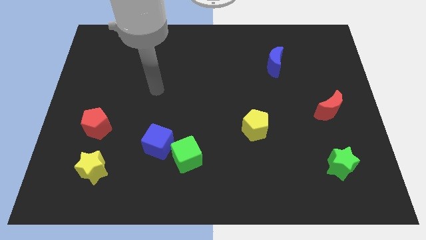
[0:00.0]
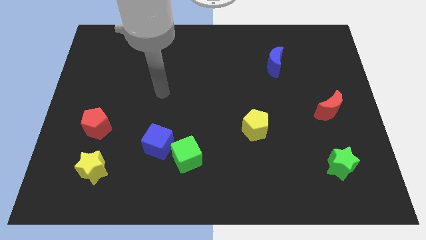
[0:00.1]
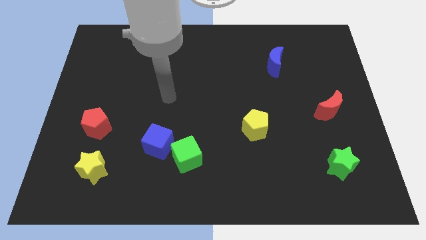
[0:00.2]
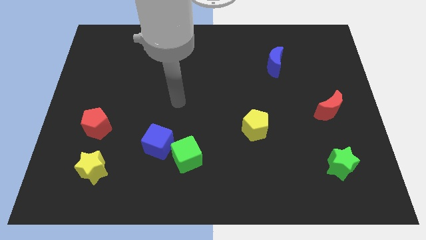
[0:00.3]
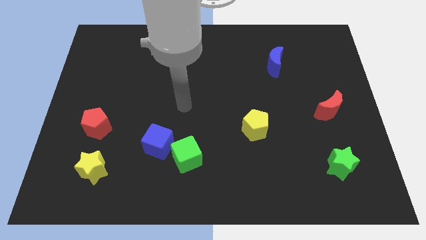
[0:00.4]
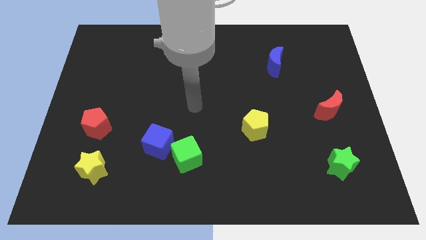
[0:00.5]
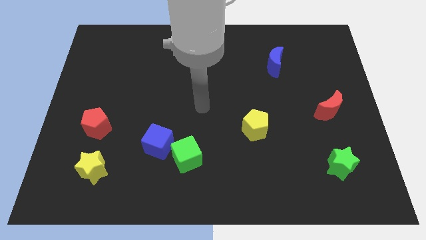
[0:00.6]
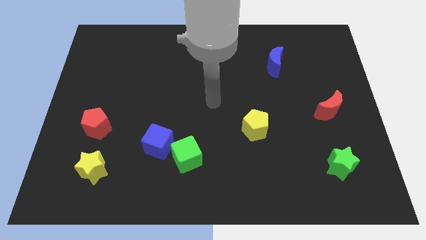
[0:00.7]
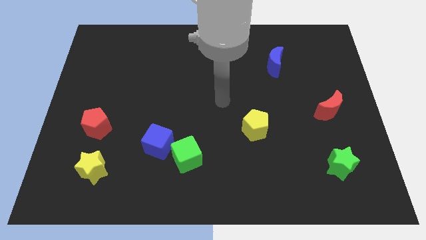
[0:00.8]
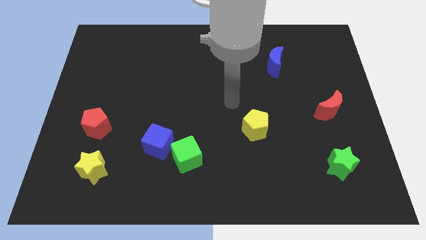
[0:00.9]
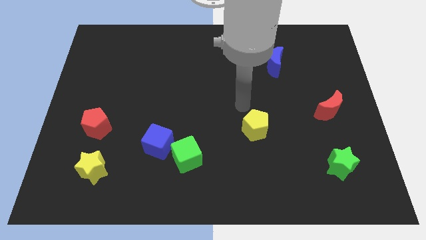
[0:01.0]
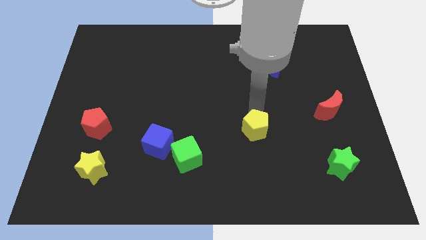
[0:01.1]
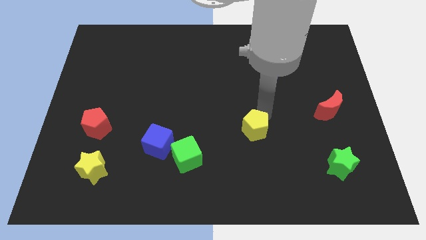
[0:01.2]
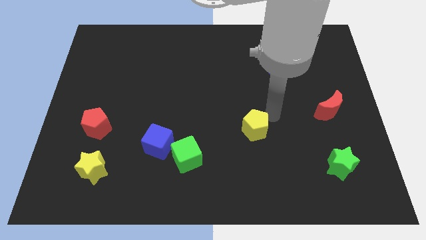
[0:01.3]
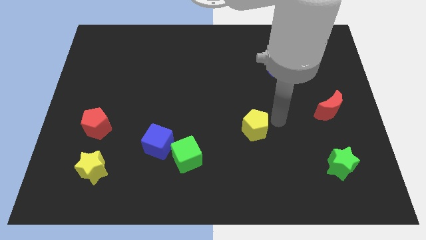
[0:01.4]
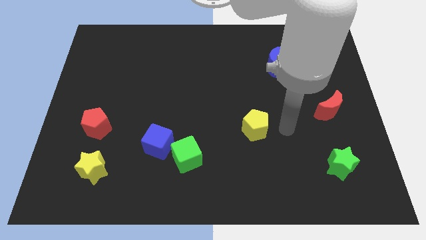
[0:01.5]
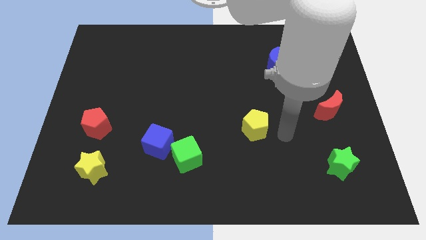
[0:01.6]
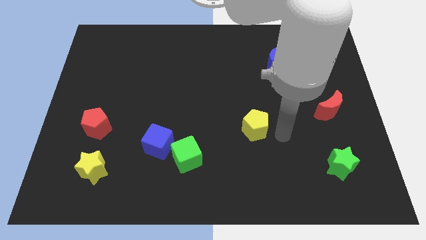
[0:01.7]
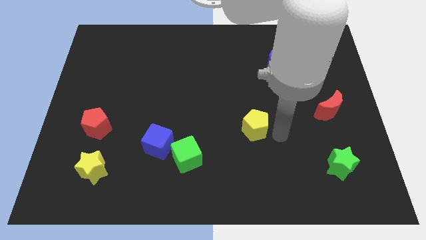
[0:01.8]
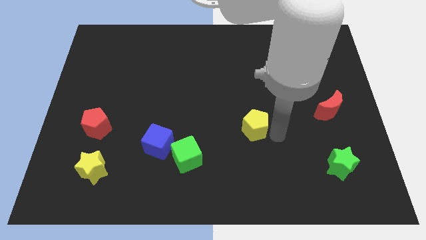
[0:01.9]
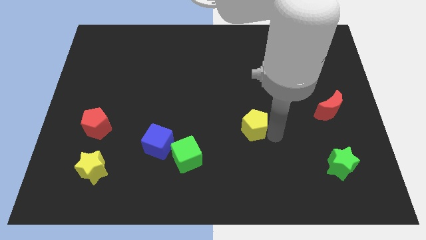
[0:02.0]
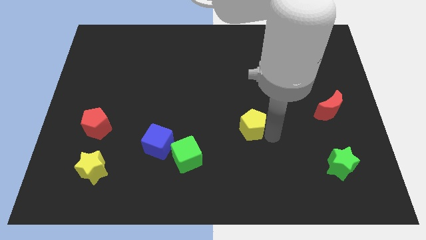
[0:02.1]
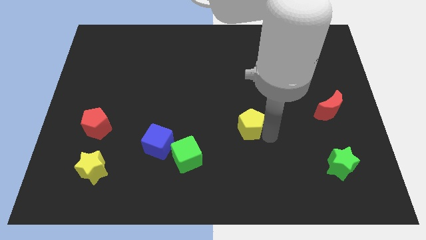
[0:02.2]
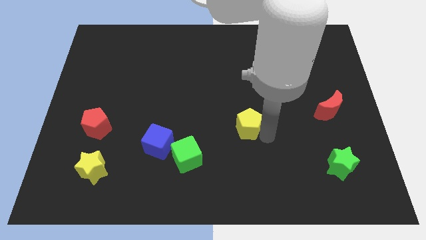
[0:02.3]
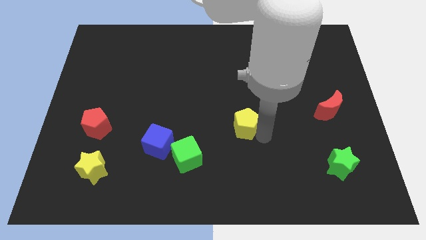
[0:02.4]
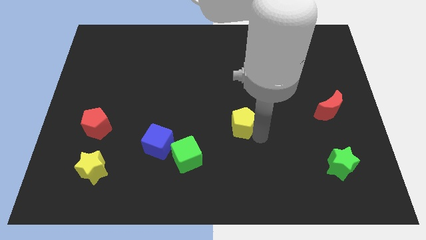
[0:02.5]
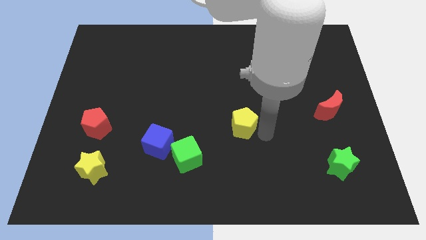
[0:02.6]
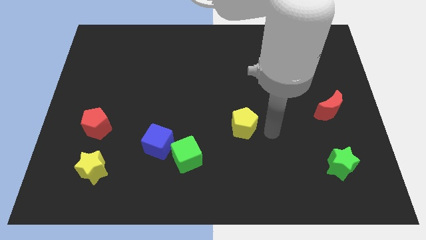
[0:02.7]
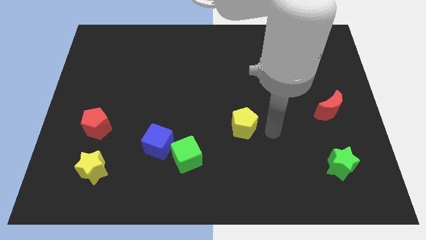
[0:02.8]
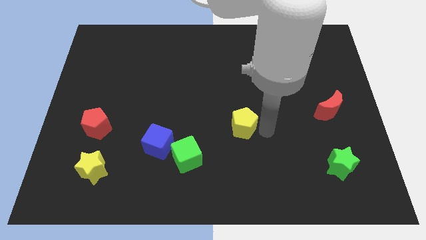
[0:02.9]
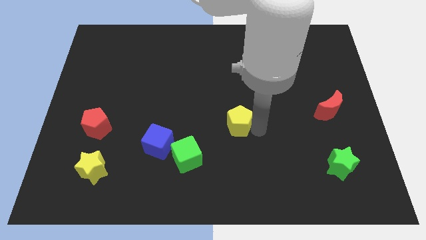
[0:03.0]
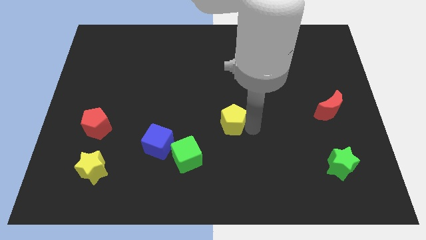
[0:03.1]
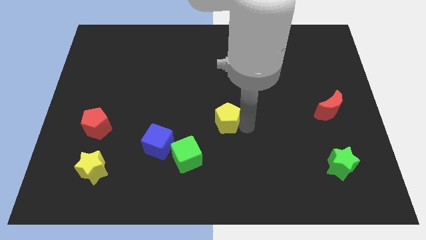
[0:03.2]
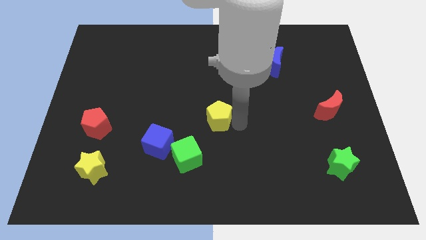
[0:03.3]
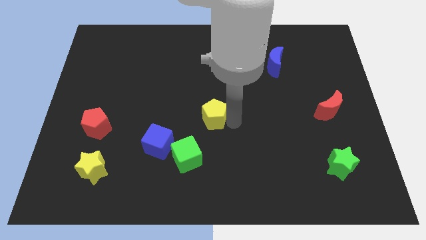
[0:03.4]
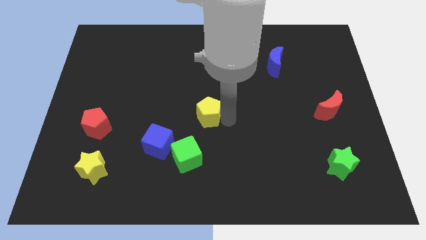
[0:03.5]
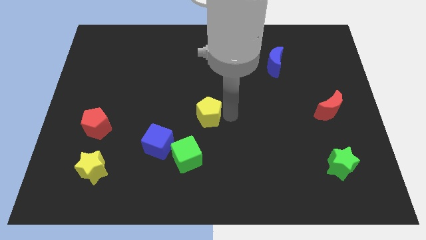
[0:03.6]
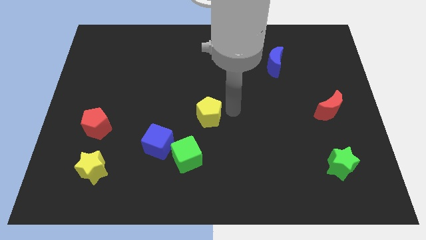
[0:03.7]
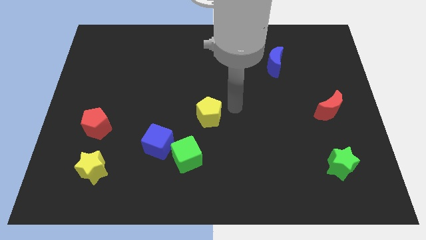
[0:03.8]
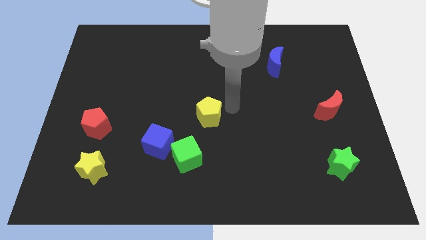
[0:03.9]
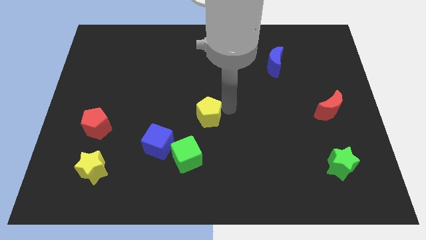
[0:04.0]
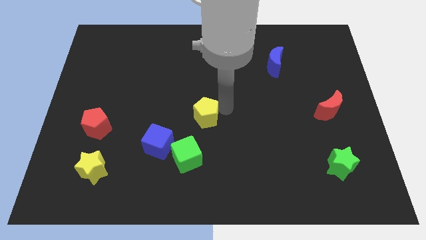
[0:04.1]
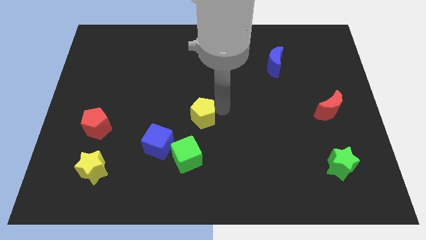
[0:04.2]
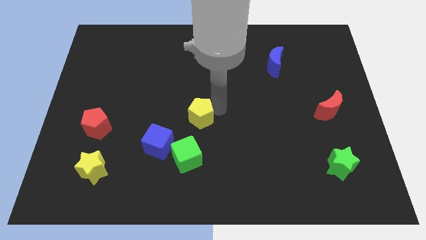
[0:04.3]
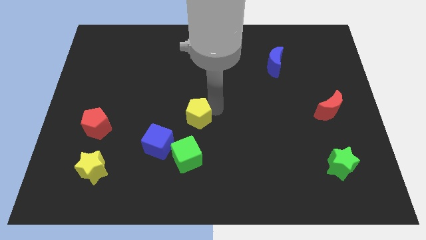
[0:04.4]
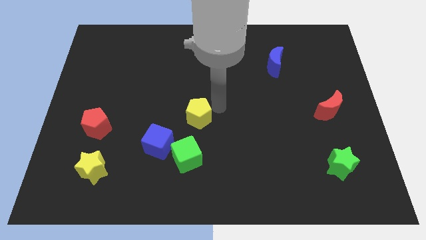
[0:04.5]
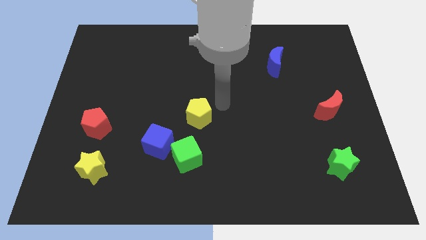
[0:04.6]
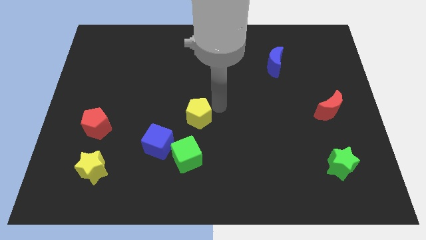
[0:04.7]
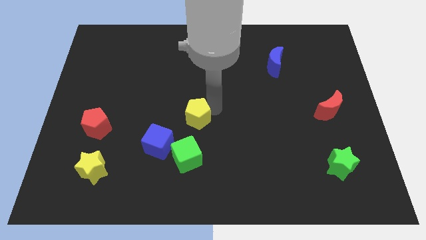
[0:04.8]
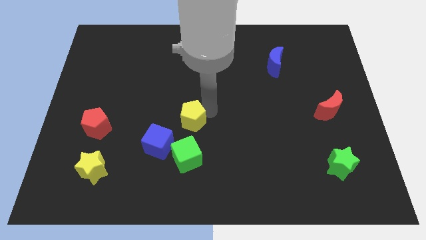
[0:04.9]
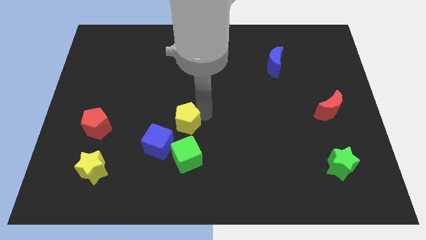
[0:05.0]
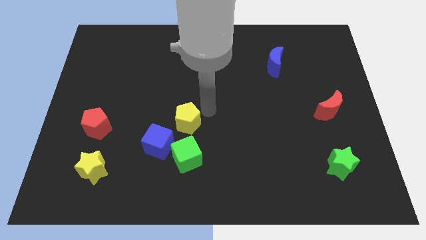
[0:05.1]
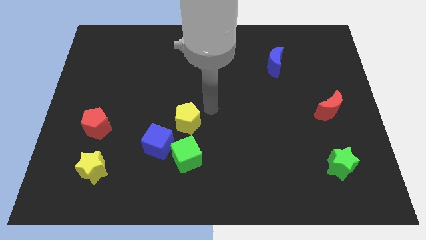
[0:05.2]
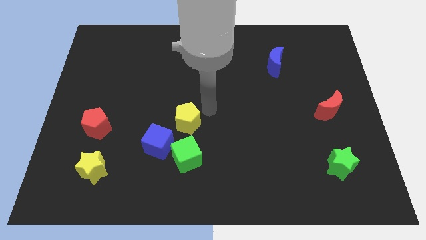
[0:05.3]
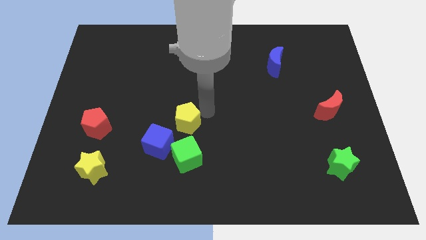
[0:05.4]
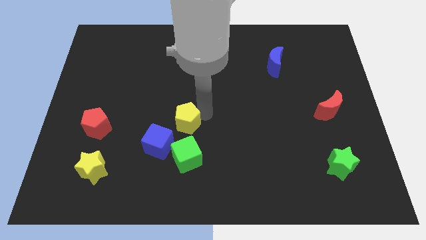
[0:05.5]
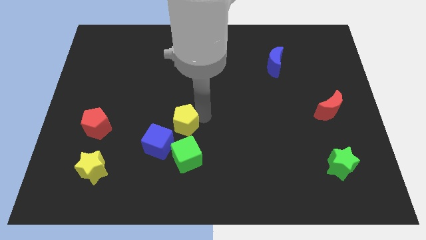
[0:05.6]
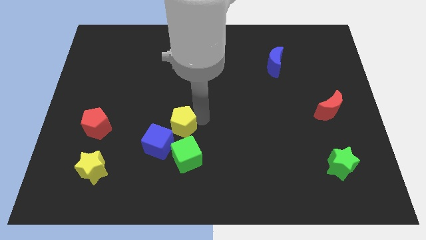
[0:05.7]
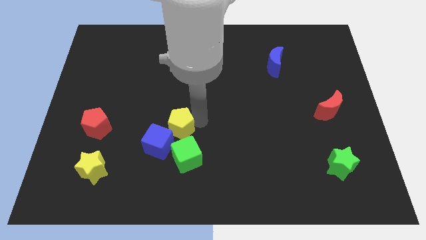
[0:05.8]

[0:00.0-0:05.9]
move the yellow pentagon to the top left of the green cube

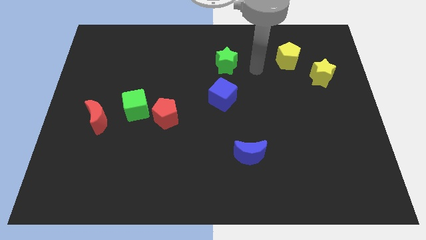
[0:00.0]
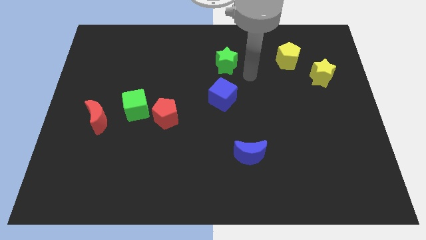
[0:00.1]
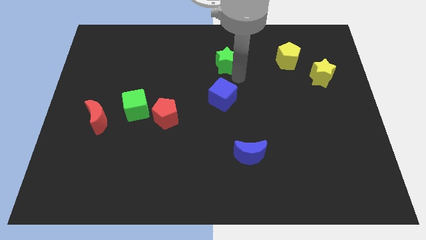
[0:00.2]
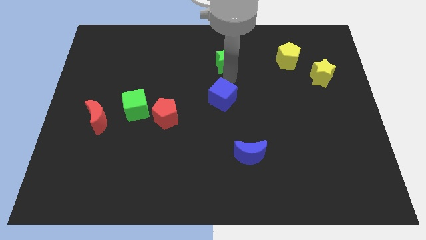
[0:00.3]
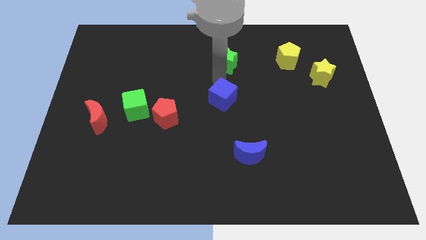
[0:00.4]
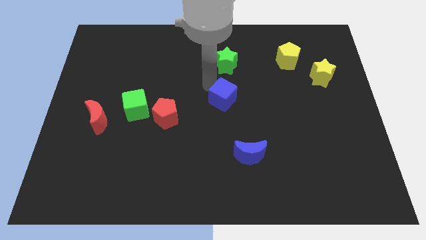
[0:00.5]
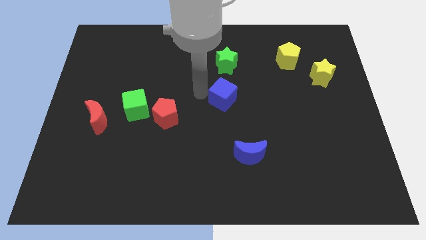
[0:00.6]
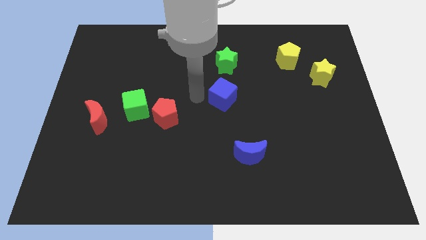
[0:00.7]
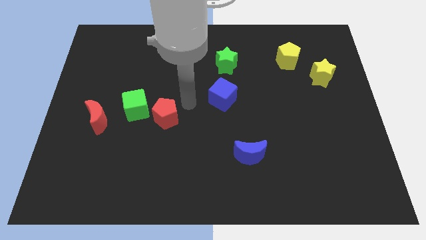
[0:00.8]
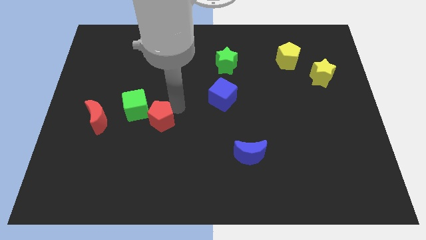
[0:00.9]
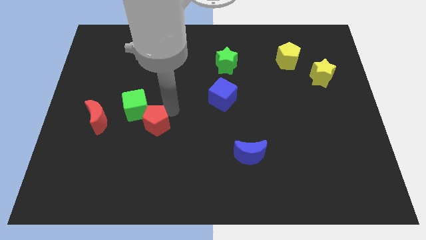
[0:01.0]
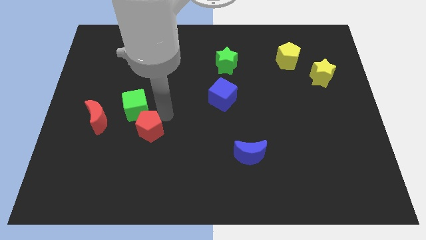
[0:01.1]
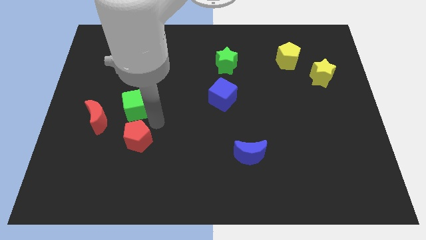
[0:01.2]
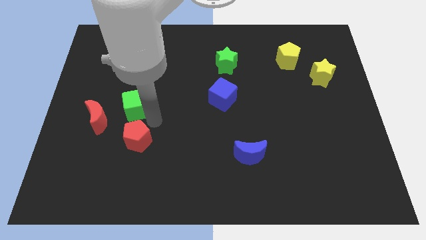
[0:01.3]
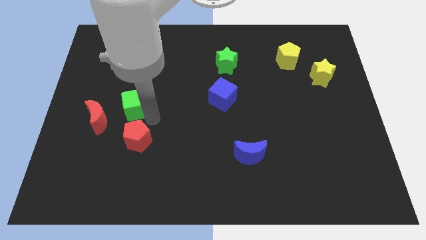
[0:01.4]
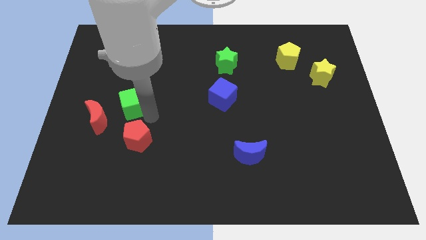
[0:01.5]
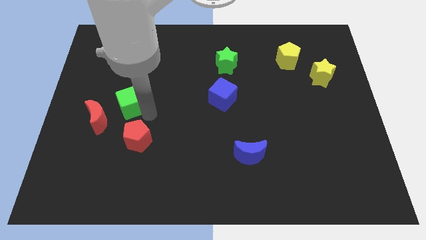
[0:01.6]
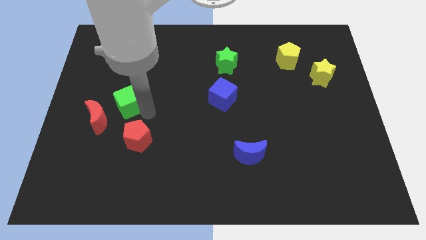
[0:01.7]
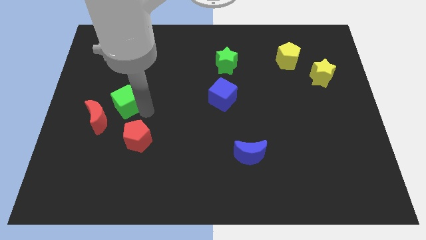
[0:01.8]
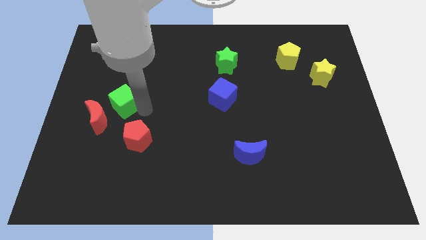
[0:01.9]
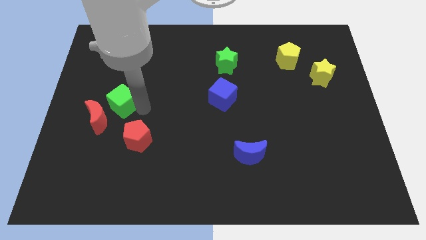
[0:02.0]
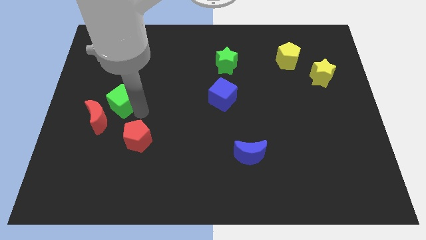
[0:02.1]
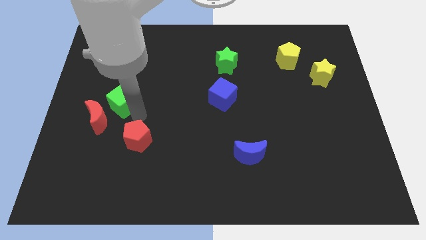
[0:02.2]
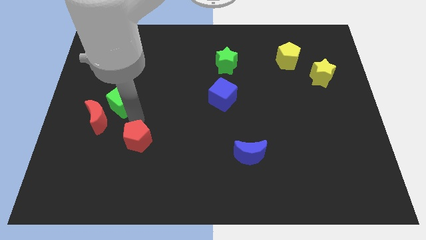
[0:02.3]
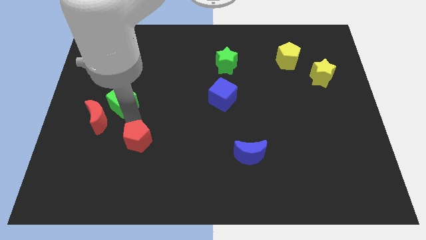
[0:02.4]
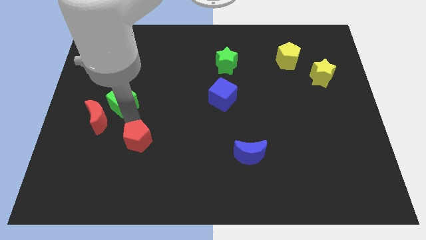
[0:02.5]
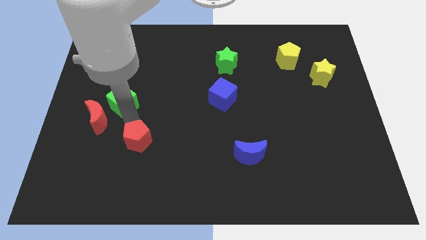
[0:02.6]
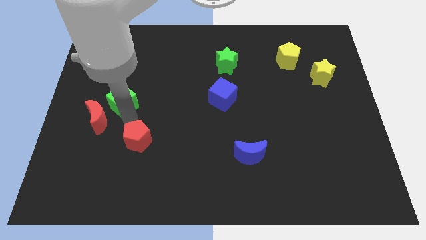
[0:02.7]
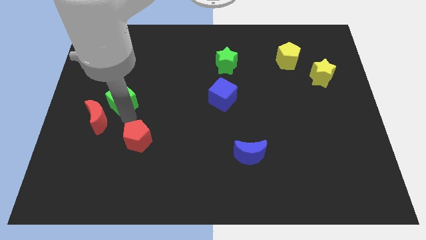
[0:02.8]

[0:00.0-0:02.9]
put the green cube above the red moon
